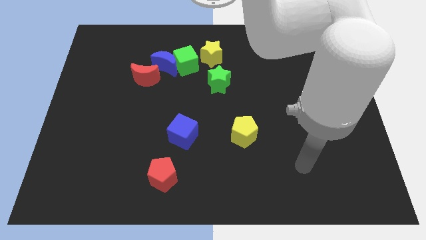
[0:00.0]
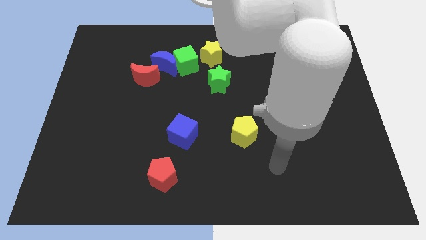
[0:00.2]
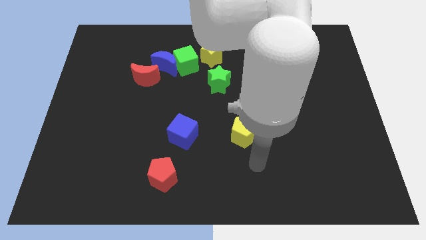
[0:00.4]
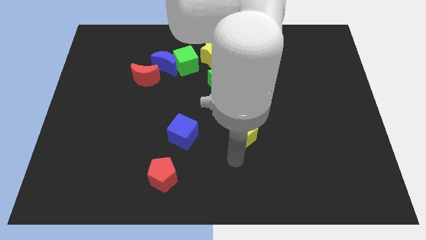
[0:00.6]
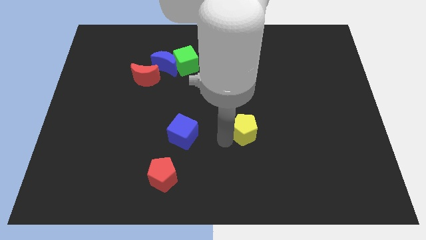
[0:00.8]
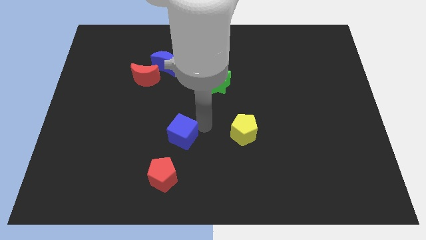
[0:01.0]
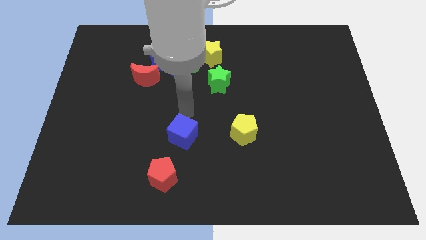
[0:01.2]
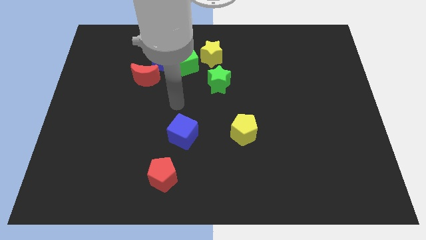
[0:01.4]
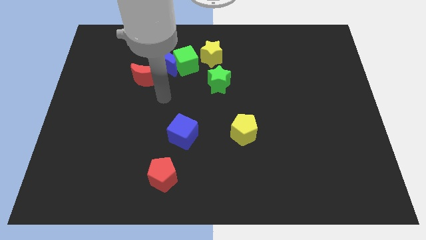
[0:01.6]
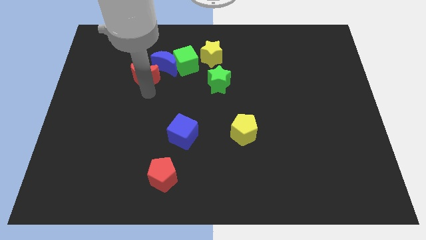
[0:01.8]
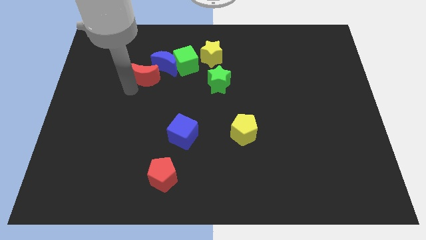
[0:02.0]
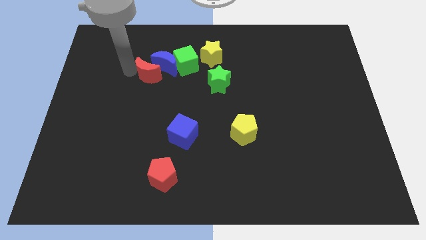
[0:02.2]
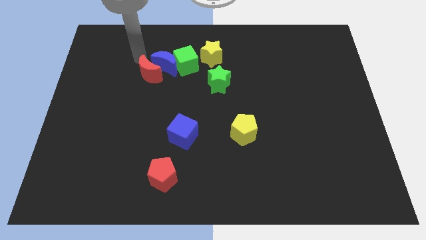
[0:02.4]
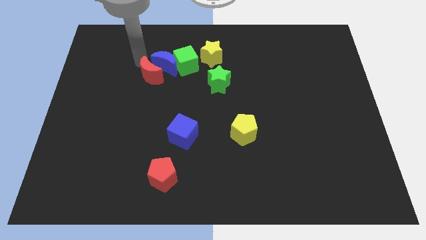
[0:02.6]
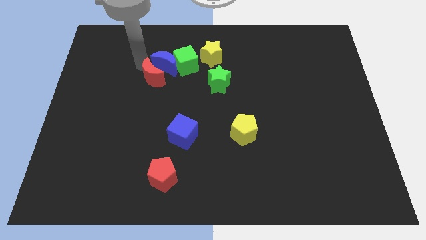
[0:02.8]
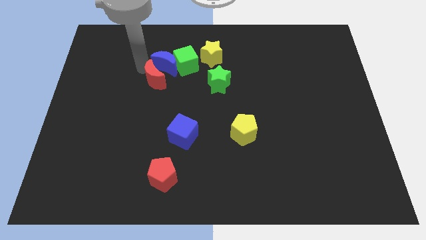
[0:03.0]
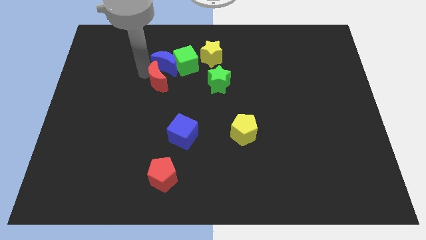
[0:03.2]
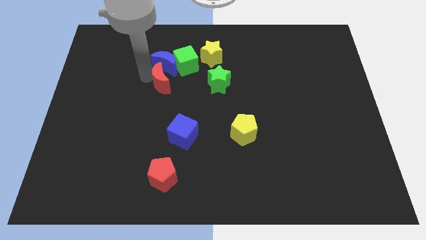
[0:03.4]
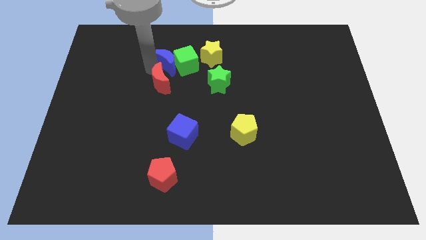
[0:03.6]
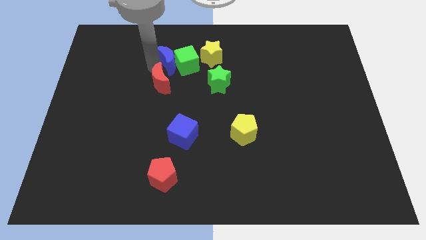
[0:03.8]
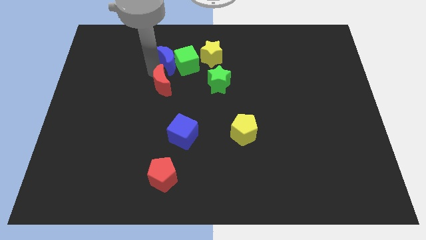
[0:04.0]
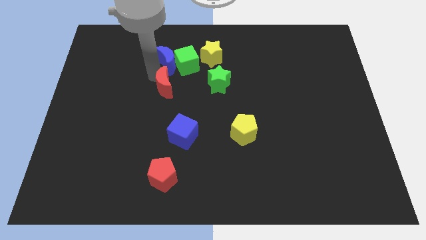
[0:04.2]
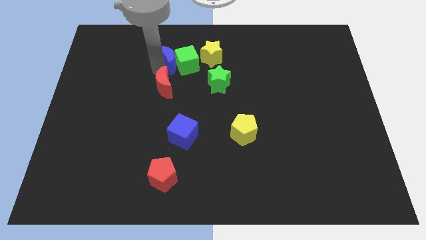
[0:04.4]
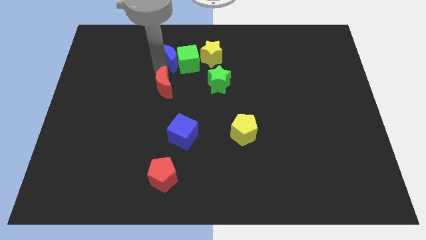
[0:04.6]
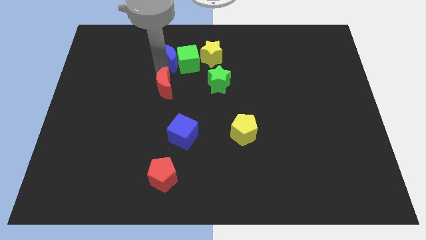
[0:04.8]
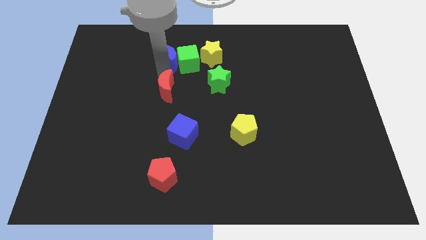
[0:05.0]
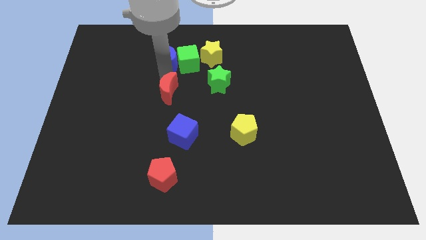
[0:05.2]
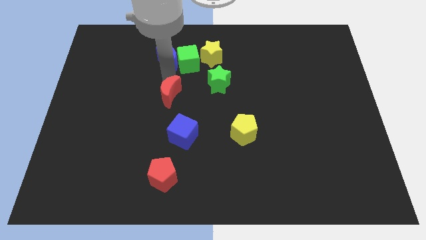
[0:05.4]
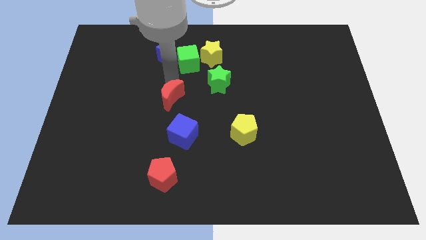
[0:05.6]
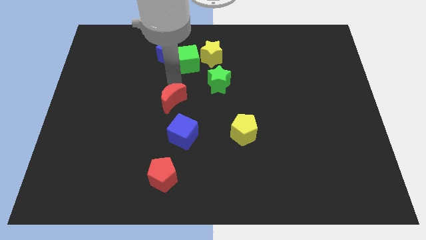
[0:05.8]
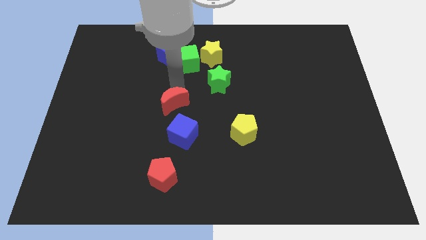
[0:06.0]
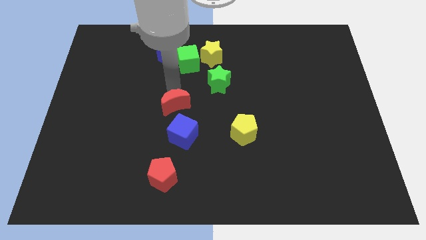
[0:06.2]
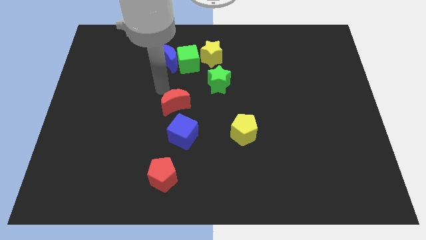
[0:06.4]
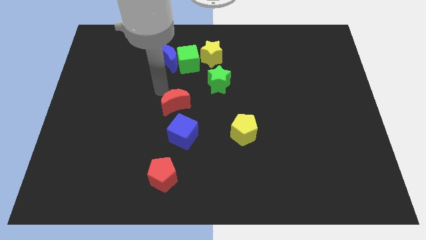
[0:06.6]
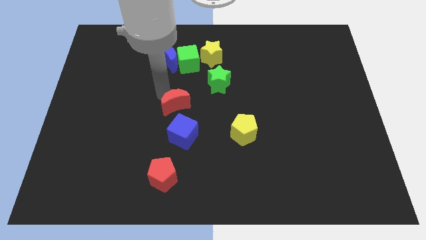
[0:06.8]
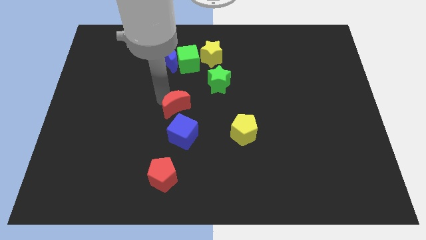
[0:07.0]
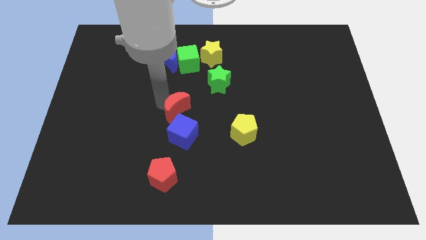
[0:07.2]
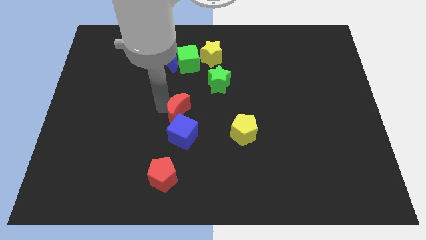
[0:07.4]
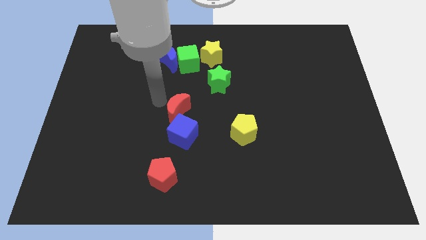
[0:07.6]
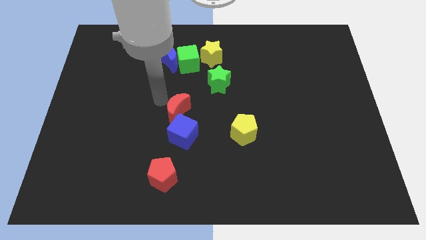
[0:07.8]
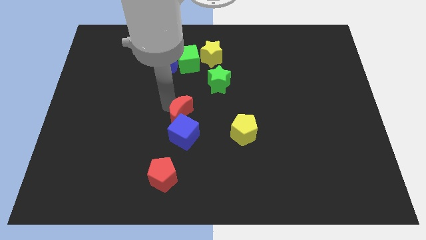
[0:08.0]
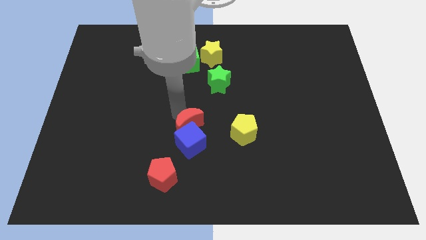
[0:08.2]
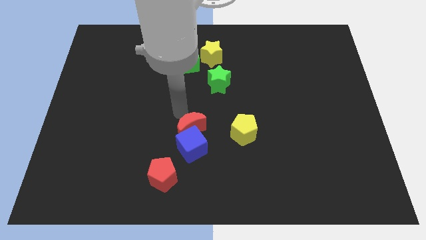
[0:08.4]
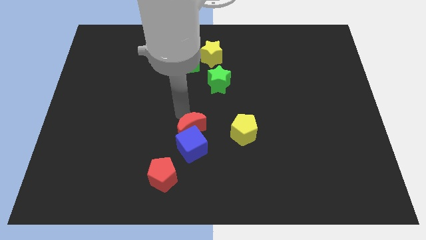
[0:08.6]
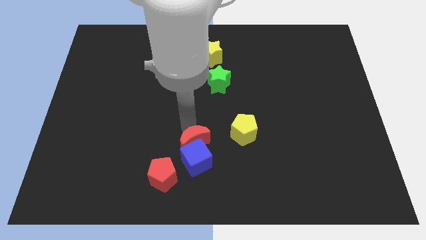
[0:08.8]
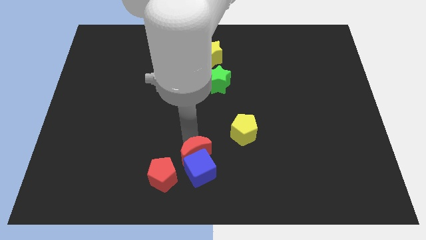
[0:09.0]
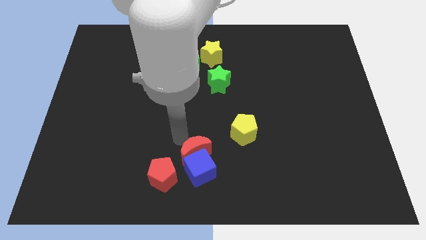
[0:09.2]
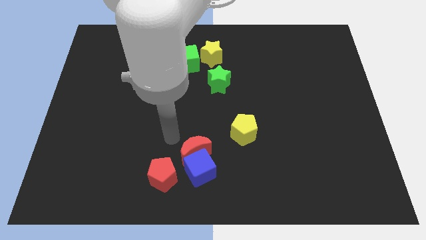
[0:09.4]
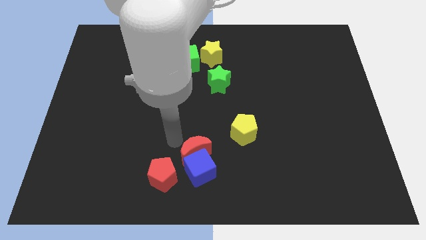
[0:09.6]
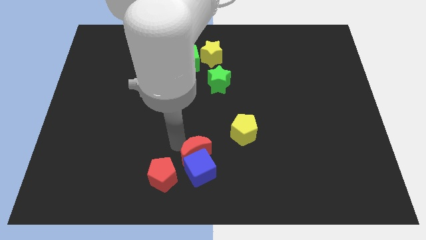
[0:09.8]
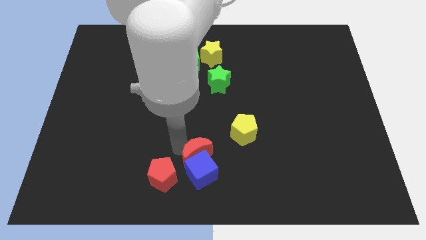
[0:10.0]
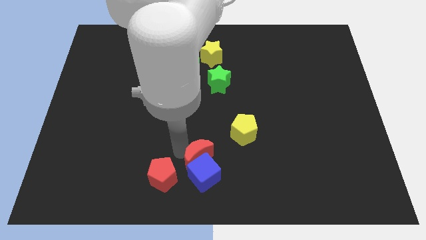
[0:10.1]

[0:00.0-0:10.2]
push the red moon to the bottom

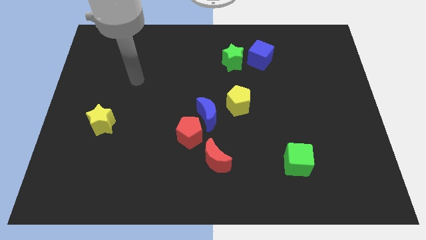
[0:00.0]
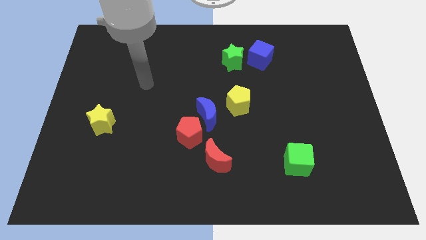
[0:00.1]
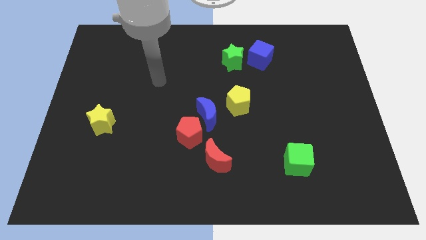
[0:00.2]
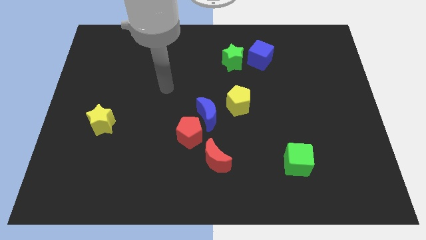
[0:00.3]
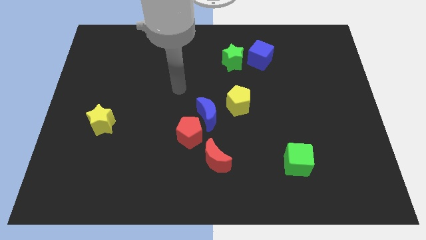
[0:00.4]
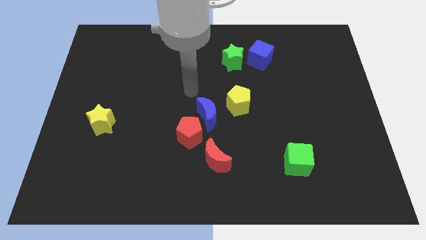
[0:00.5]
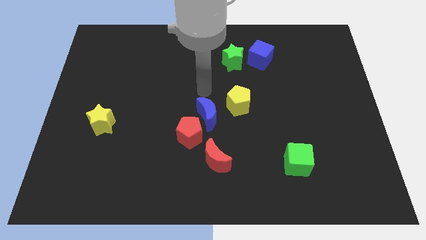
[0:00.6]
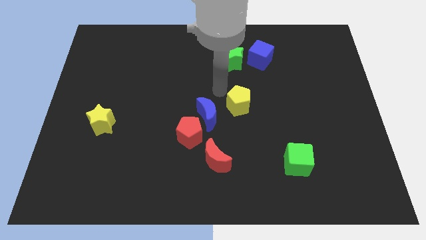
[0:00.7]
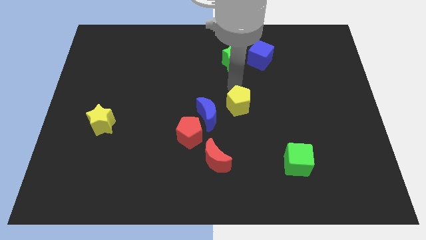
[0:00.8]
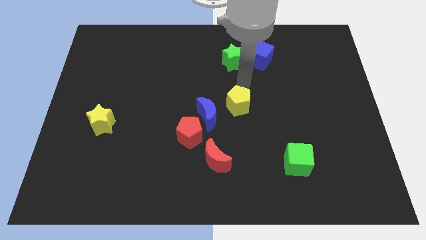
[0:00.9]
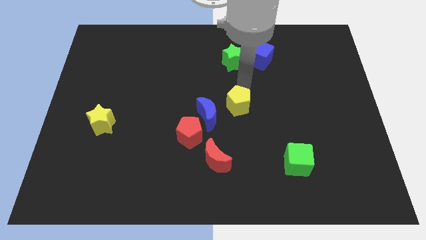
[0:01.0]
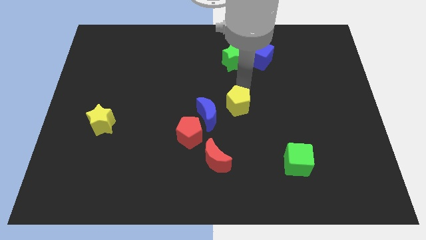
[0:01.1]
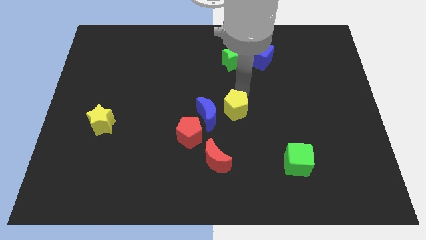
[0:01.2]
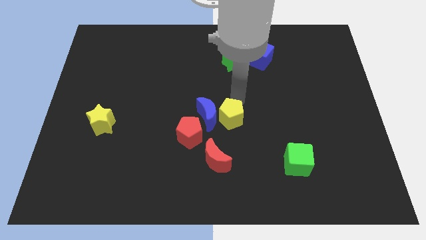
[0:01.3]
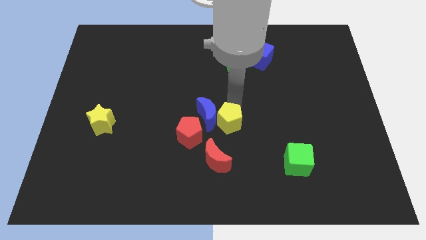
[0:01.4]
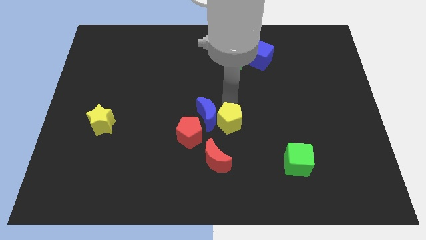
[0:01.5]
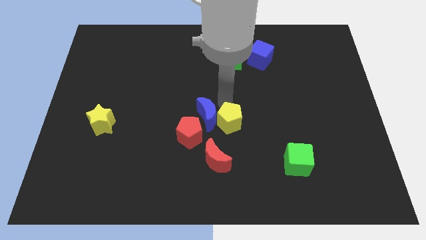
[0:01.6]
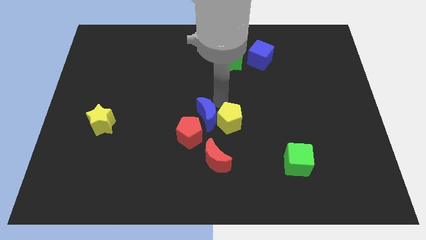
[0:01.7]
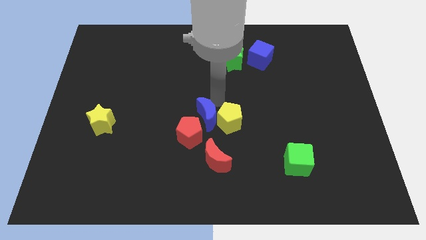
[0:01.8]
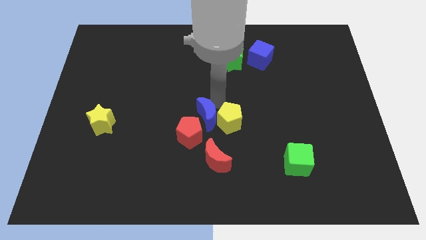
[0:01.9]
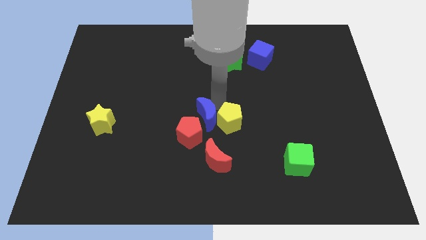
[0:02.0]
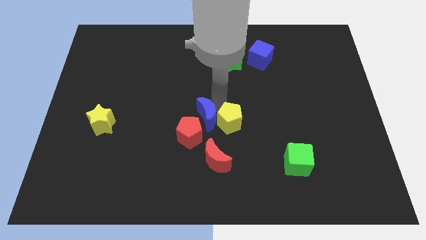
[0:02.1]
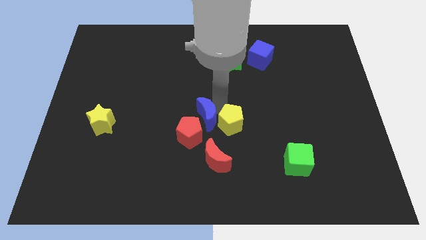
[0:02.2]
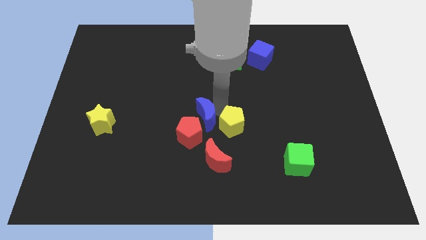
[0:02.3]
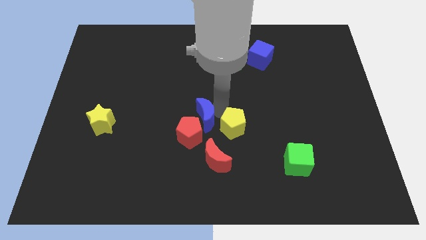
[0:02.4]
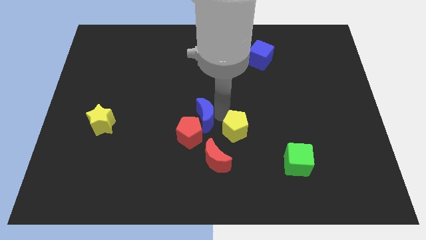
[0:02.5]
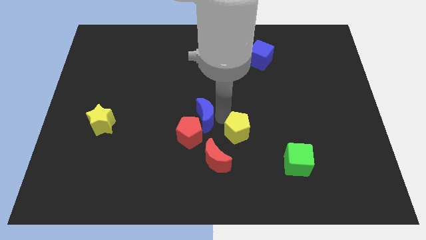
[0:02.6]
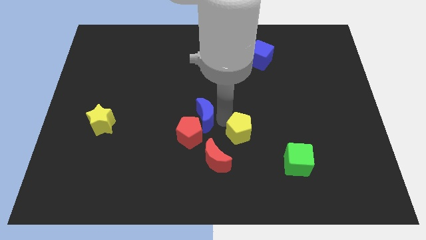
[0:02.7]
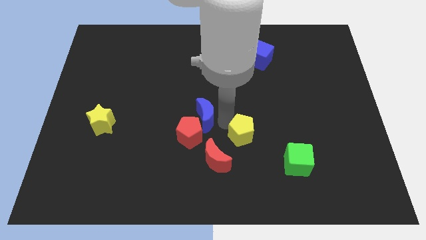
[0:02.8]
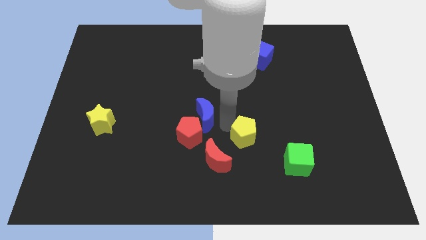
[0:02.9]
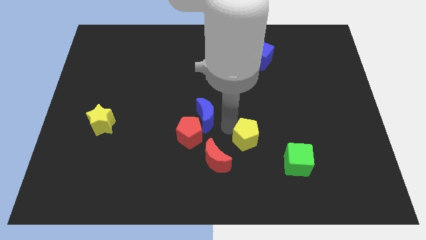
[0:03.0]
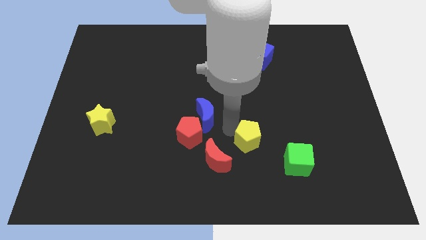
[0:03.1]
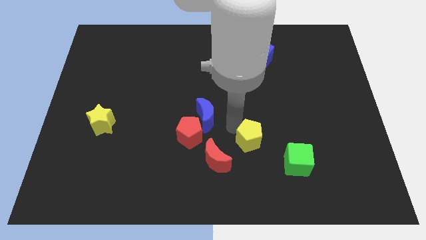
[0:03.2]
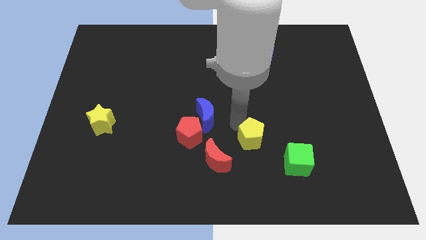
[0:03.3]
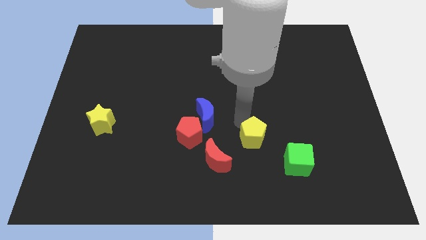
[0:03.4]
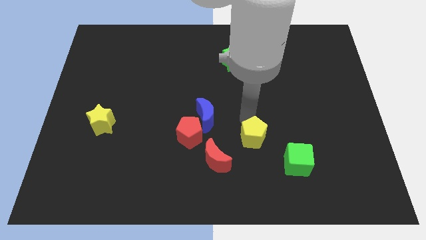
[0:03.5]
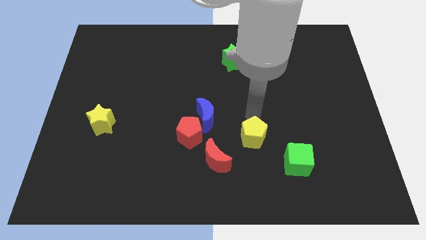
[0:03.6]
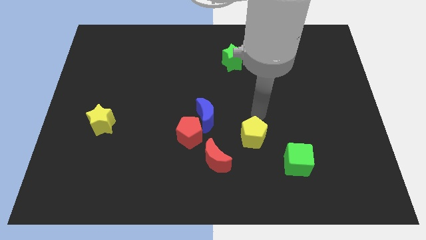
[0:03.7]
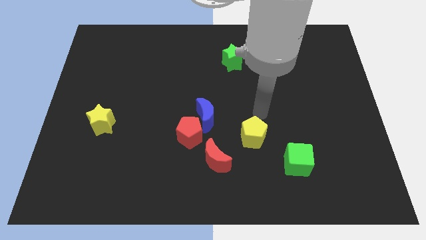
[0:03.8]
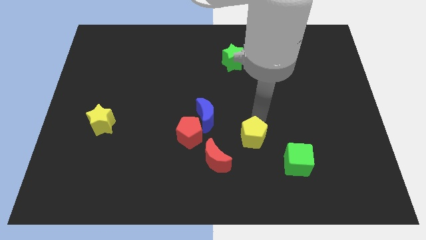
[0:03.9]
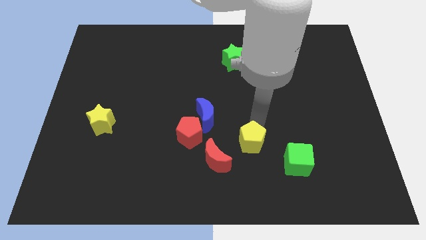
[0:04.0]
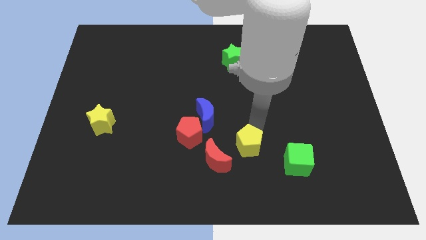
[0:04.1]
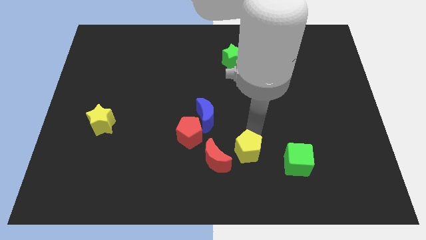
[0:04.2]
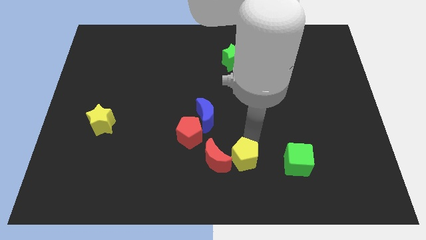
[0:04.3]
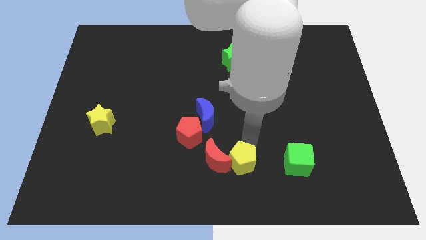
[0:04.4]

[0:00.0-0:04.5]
put the yellow pentagon to the bottom side
